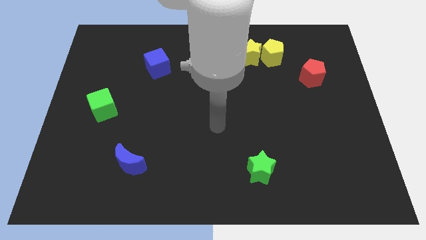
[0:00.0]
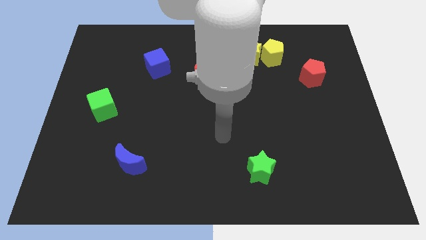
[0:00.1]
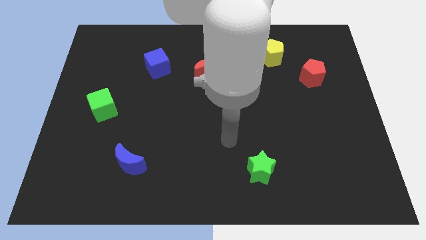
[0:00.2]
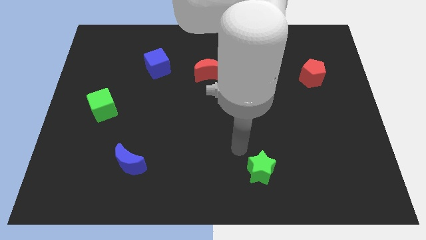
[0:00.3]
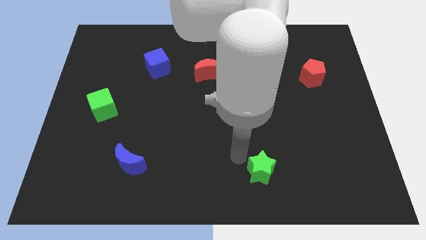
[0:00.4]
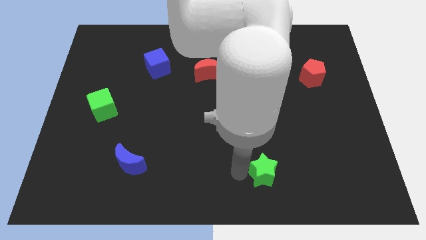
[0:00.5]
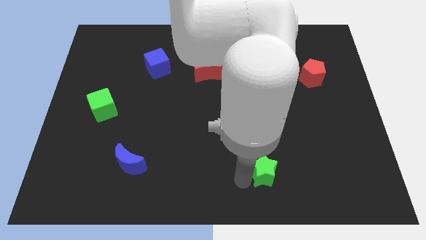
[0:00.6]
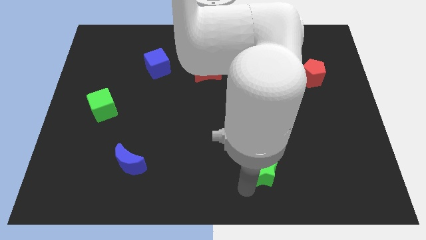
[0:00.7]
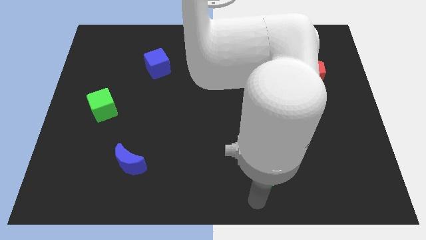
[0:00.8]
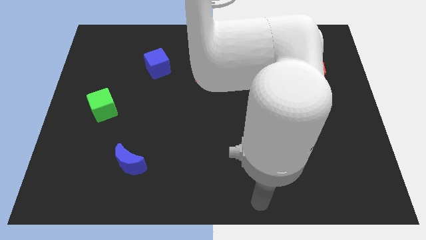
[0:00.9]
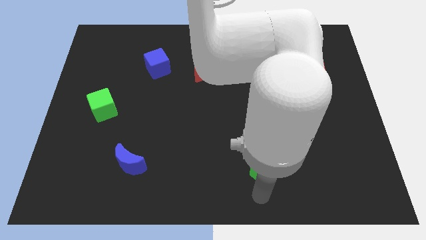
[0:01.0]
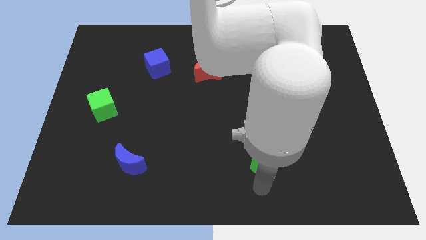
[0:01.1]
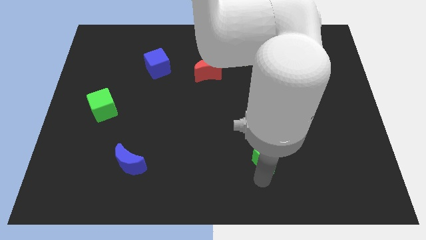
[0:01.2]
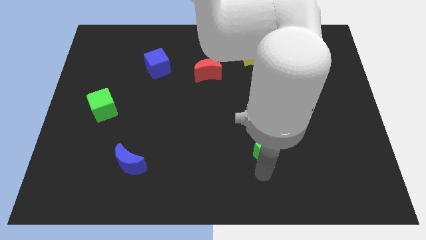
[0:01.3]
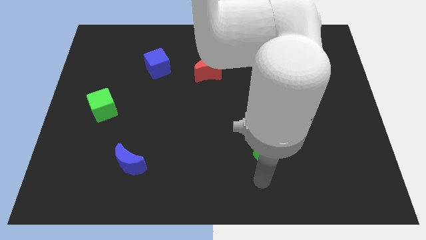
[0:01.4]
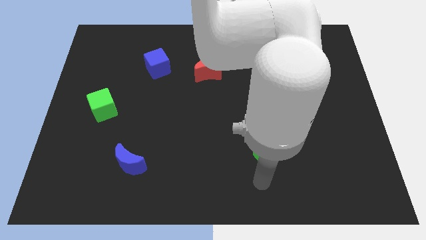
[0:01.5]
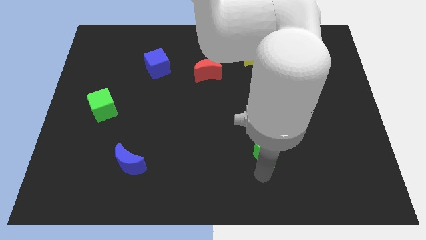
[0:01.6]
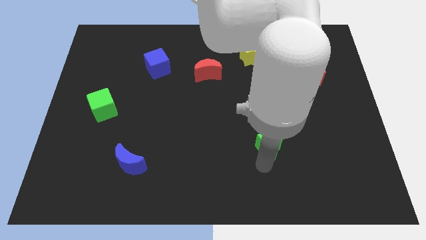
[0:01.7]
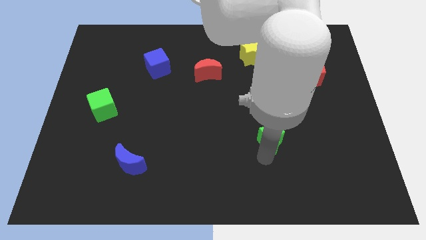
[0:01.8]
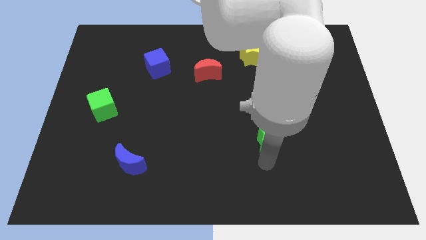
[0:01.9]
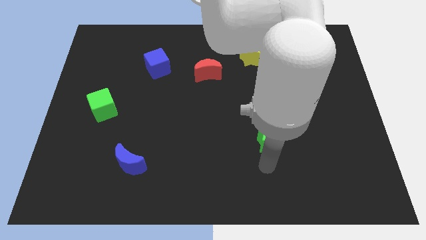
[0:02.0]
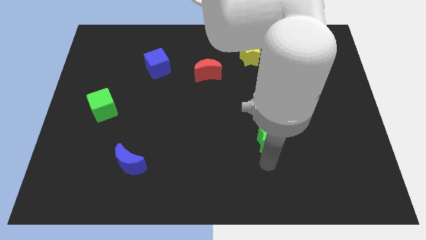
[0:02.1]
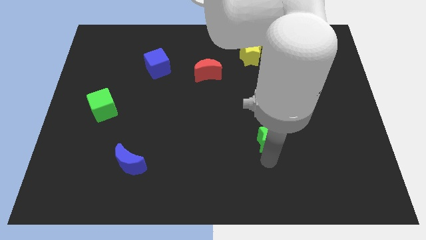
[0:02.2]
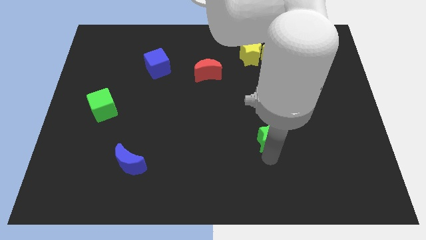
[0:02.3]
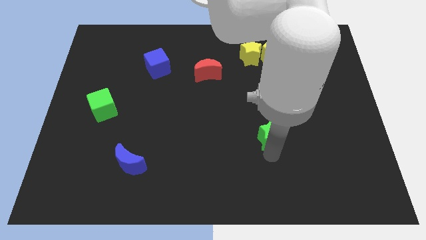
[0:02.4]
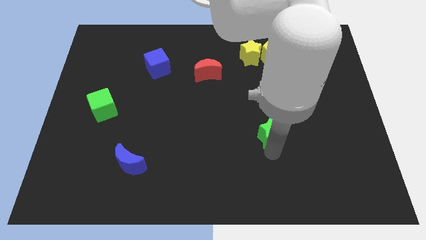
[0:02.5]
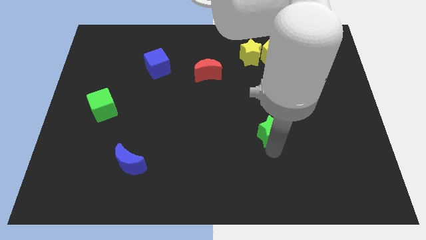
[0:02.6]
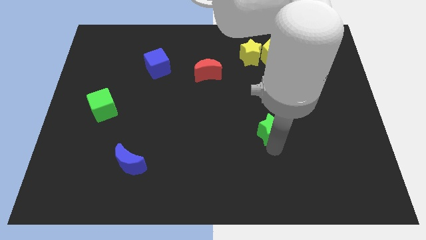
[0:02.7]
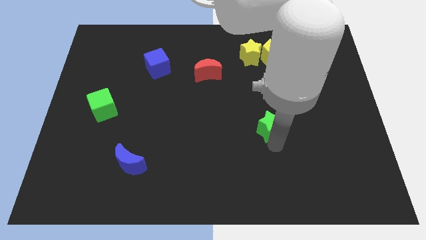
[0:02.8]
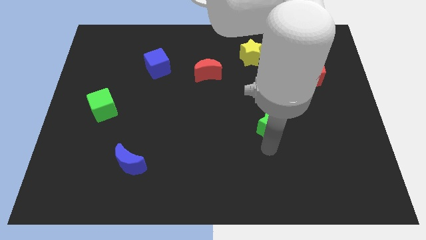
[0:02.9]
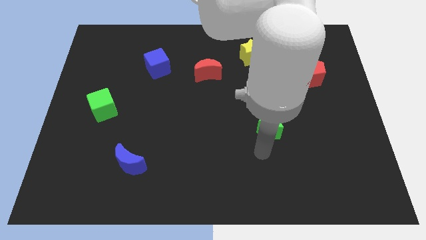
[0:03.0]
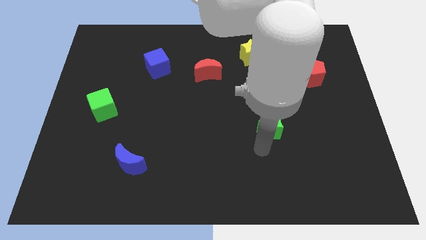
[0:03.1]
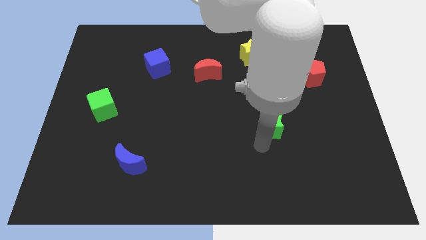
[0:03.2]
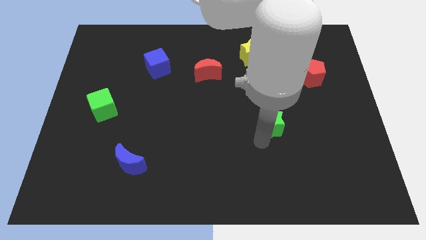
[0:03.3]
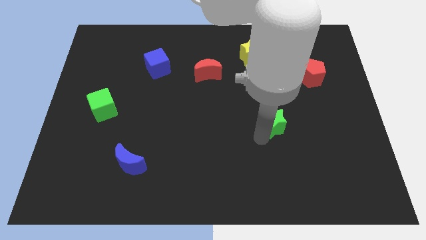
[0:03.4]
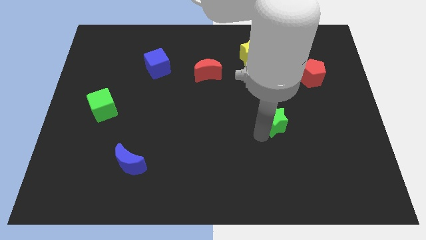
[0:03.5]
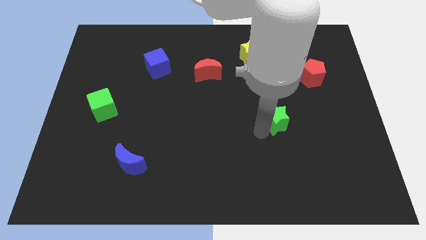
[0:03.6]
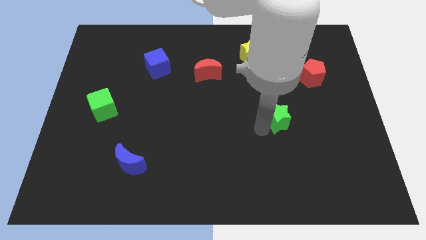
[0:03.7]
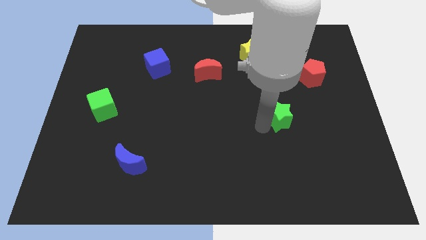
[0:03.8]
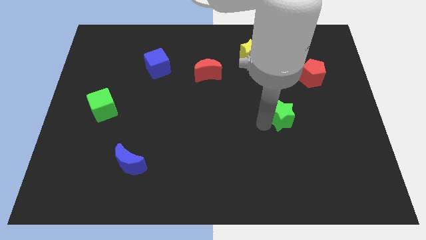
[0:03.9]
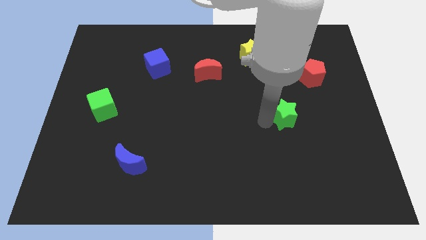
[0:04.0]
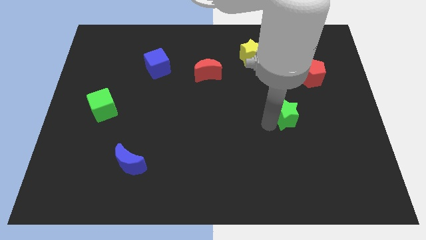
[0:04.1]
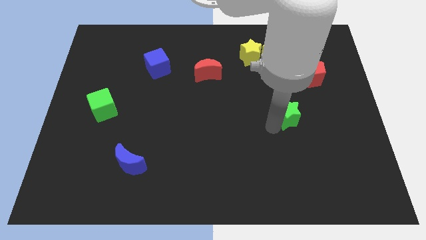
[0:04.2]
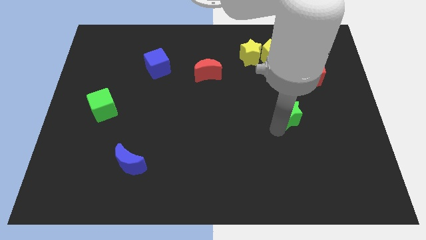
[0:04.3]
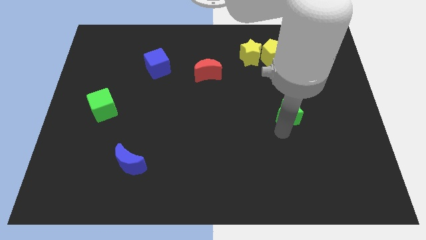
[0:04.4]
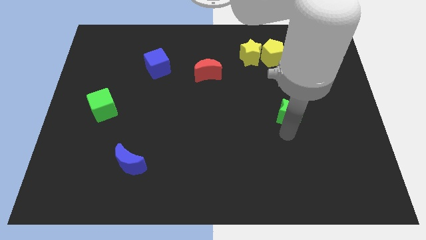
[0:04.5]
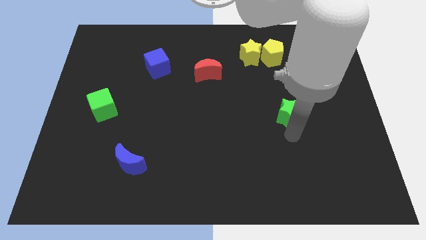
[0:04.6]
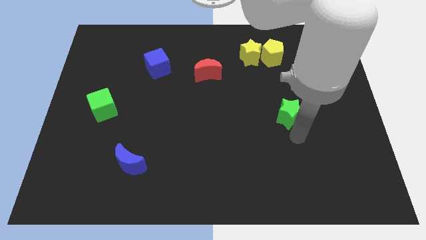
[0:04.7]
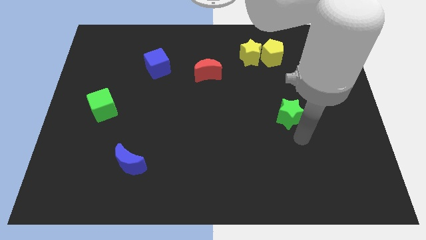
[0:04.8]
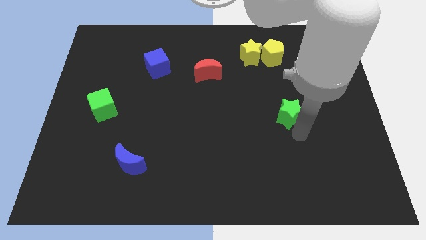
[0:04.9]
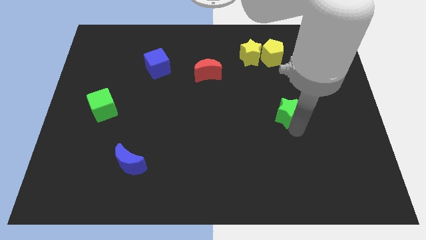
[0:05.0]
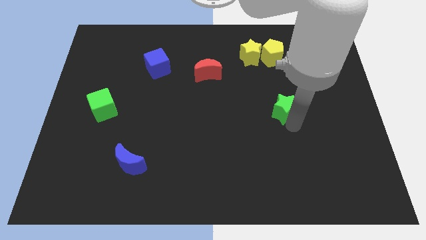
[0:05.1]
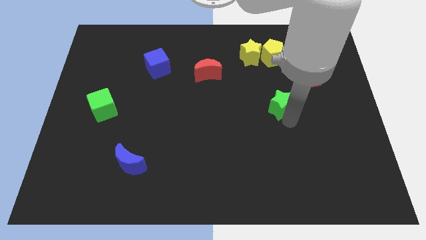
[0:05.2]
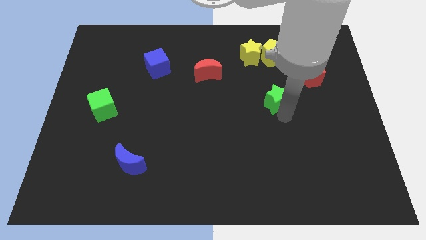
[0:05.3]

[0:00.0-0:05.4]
slide the green star to the bottom of the yellow pentagon

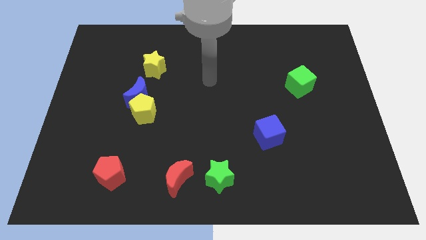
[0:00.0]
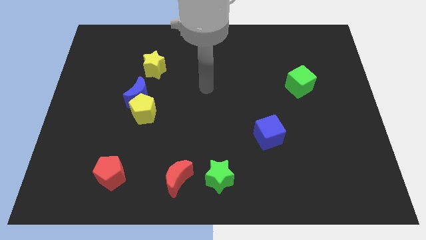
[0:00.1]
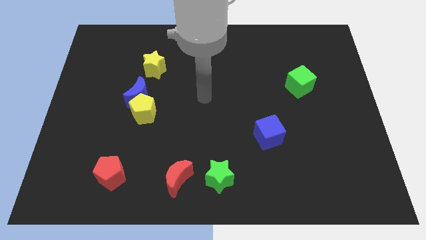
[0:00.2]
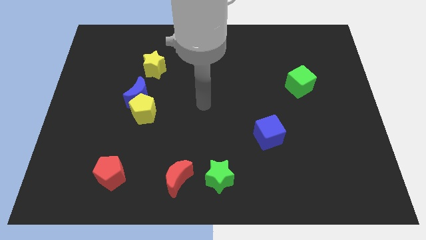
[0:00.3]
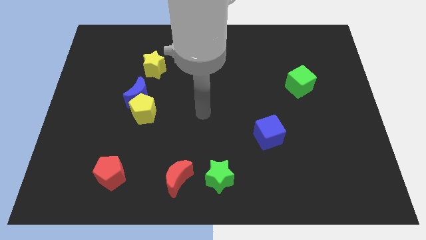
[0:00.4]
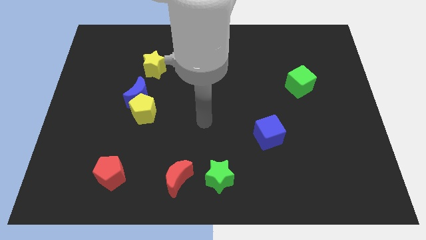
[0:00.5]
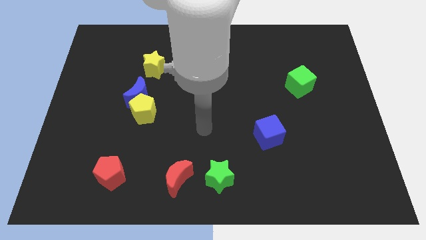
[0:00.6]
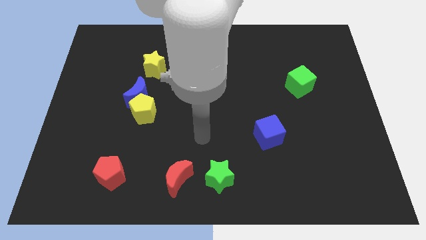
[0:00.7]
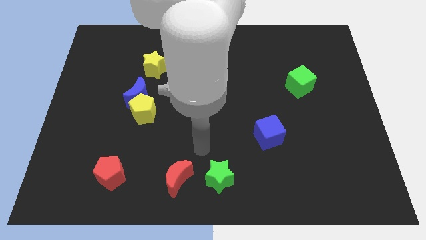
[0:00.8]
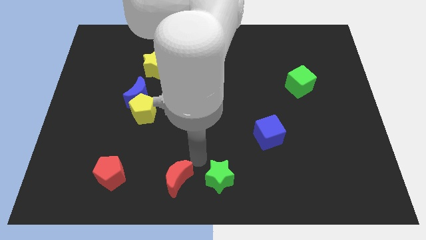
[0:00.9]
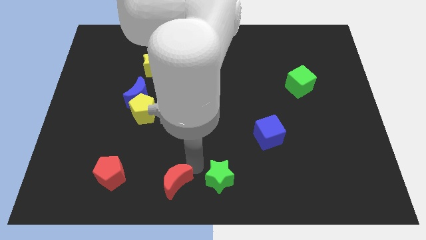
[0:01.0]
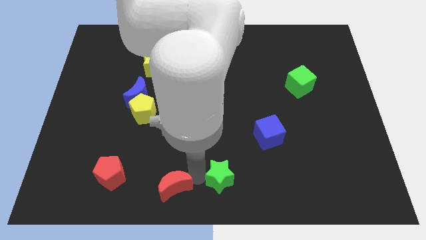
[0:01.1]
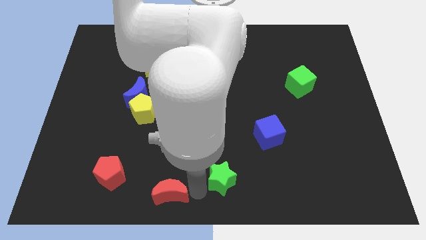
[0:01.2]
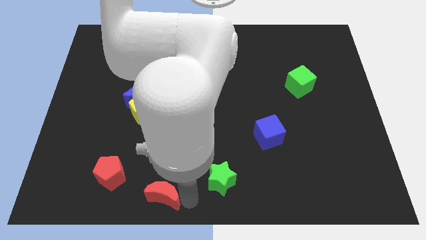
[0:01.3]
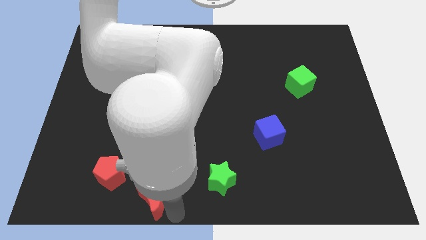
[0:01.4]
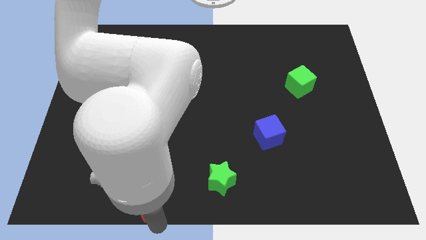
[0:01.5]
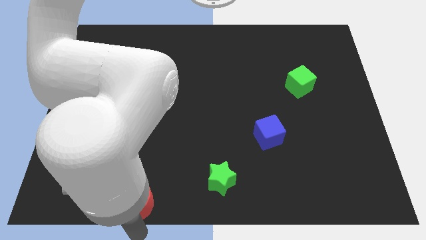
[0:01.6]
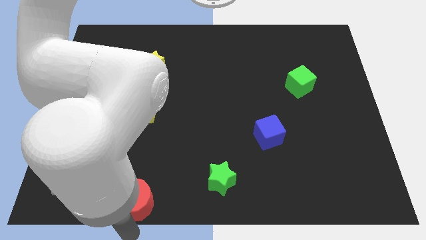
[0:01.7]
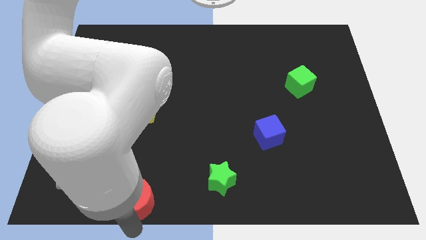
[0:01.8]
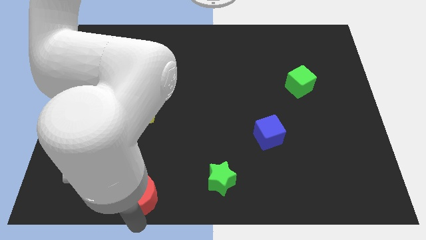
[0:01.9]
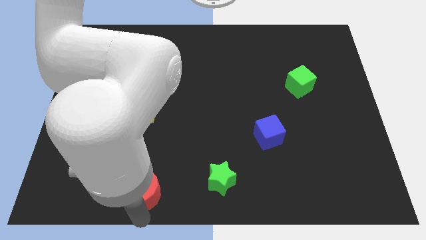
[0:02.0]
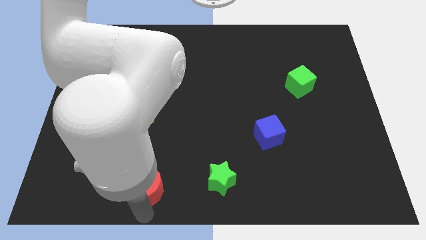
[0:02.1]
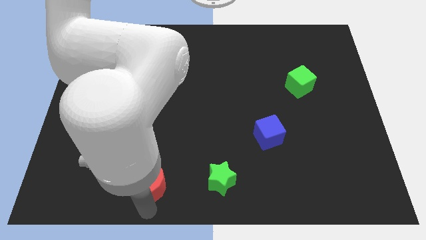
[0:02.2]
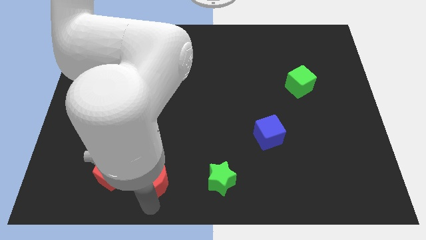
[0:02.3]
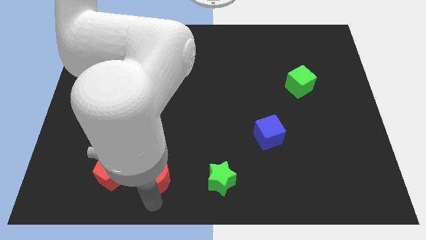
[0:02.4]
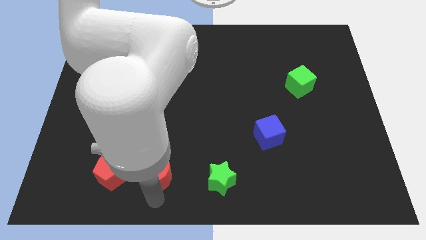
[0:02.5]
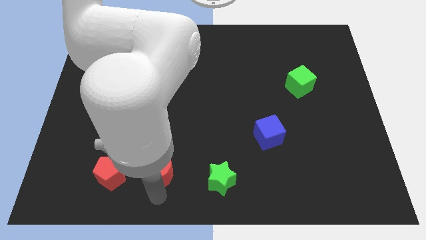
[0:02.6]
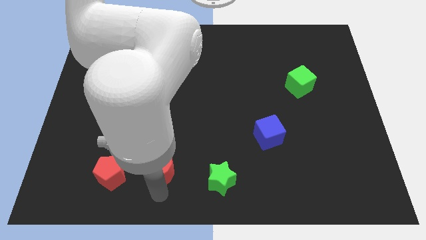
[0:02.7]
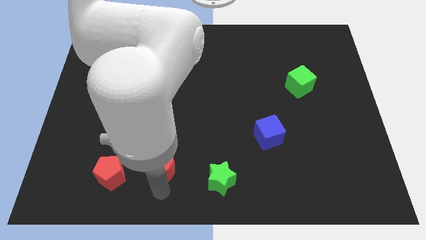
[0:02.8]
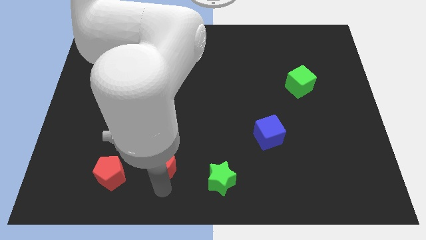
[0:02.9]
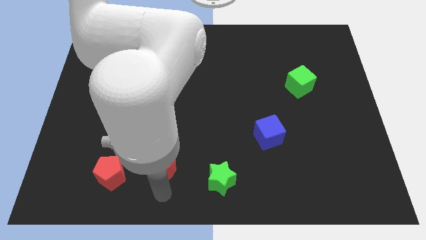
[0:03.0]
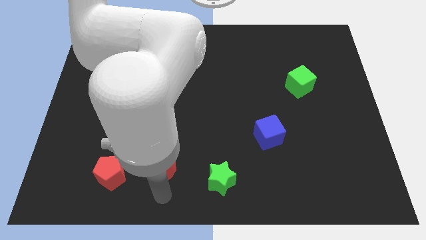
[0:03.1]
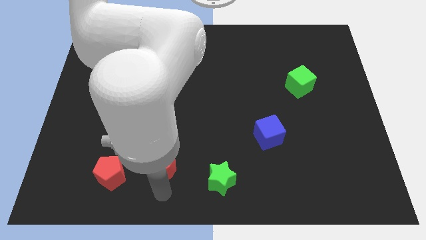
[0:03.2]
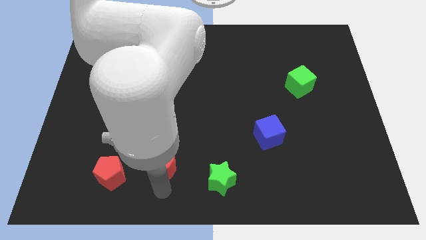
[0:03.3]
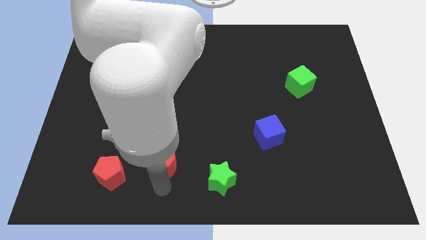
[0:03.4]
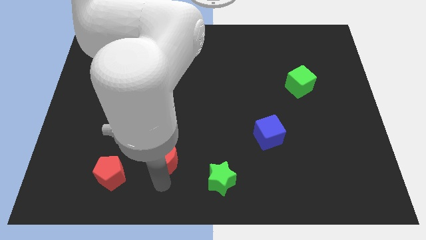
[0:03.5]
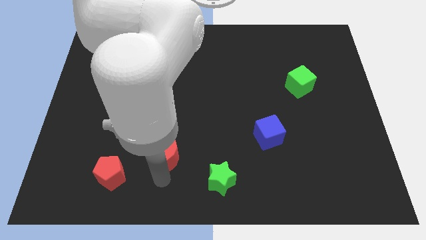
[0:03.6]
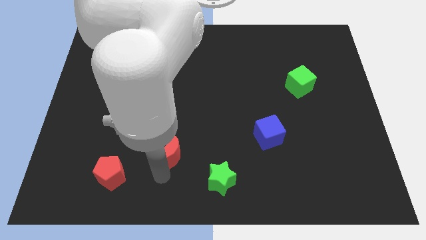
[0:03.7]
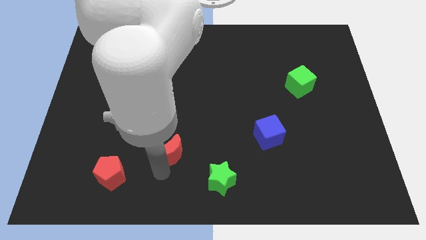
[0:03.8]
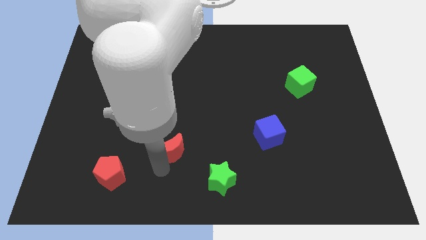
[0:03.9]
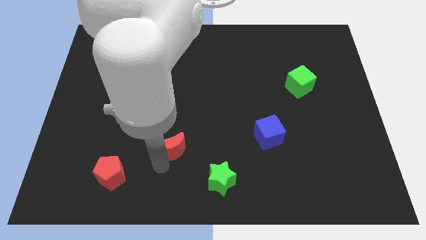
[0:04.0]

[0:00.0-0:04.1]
slide the red moon to the bottom right side of the yellow pentagon
